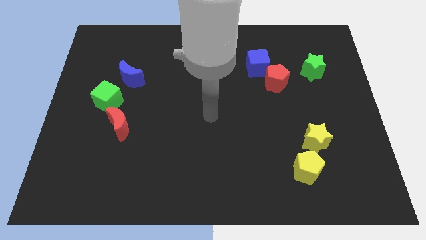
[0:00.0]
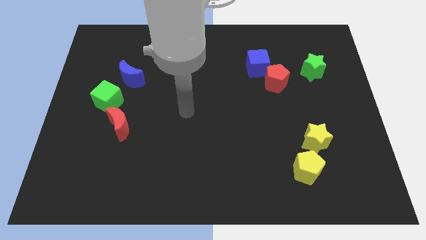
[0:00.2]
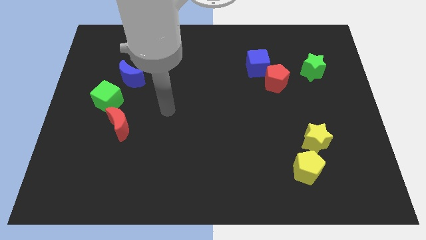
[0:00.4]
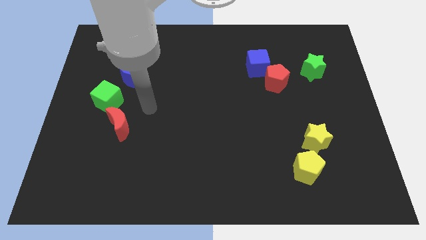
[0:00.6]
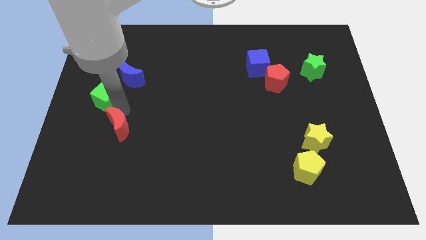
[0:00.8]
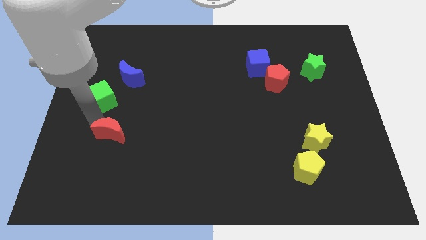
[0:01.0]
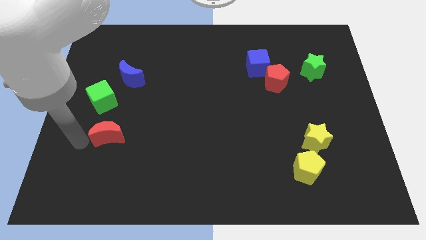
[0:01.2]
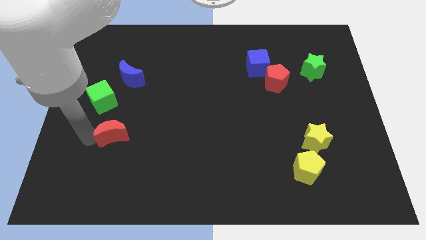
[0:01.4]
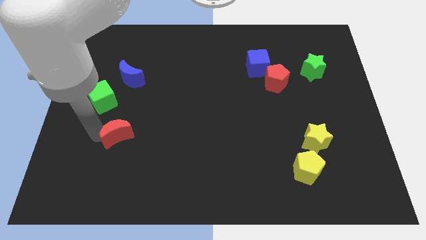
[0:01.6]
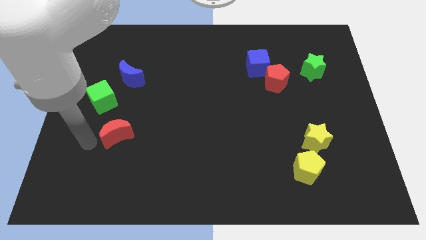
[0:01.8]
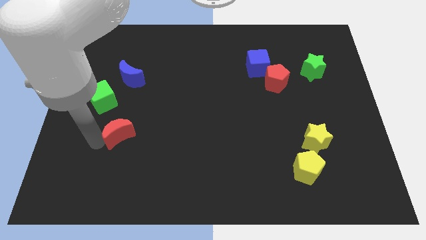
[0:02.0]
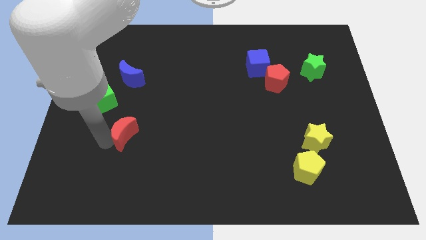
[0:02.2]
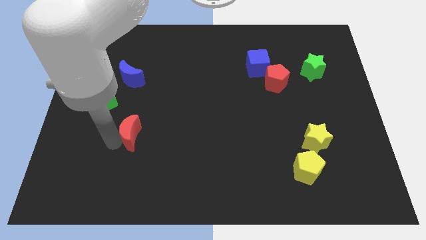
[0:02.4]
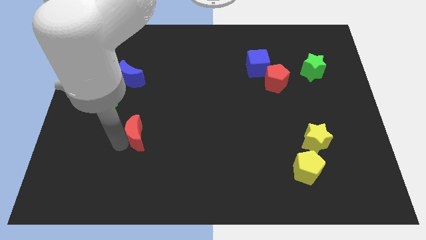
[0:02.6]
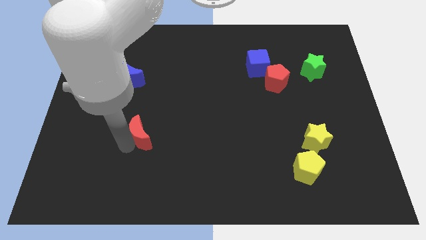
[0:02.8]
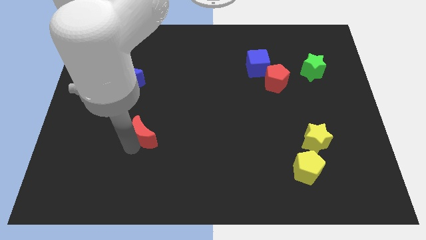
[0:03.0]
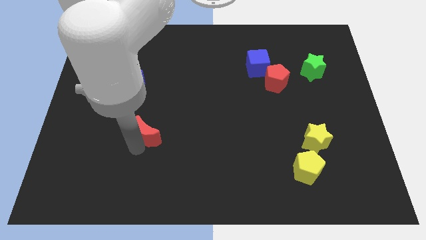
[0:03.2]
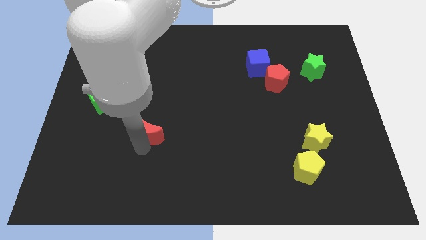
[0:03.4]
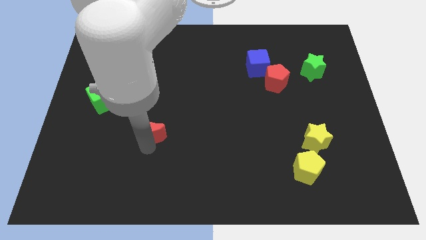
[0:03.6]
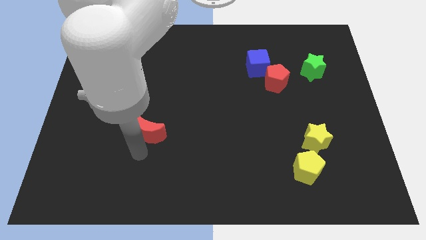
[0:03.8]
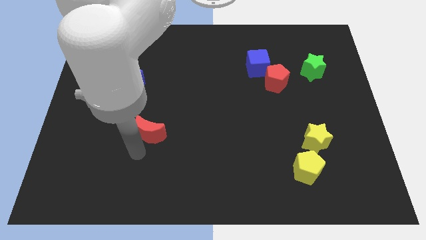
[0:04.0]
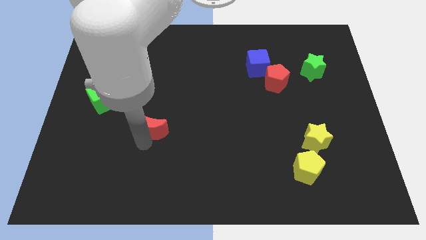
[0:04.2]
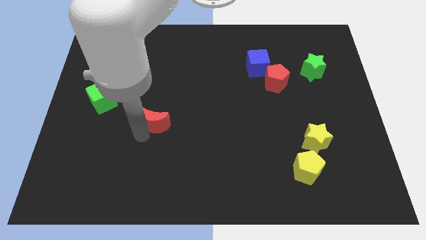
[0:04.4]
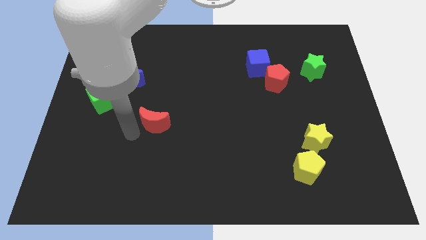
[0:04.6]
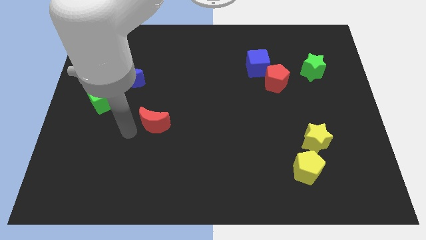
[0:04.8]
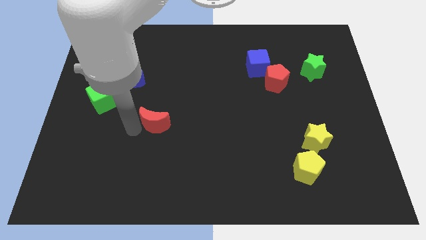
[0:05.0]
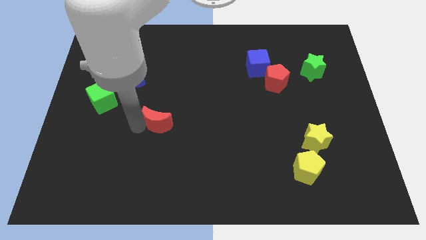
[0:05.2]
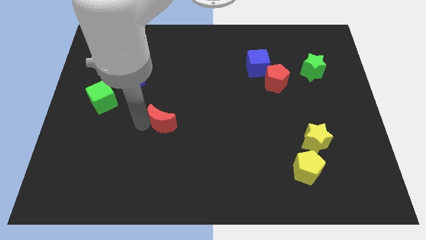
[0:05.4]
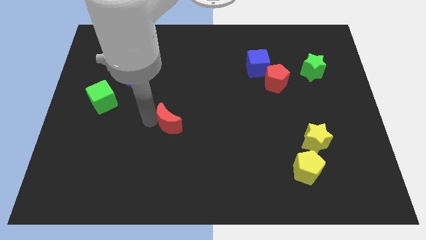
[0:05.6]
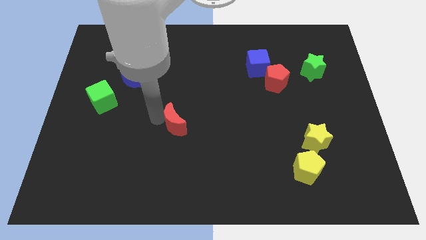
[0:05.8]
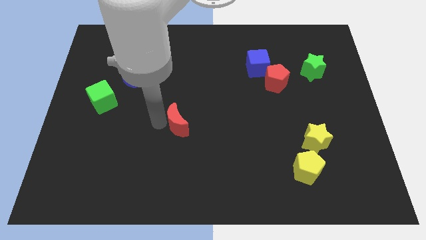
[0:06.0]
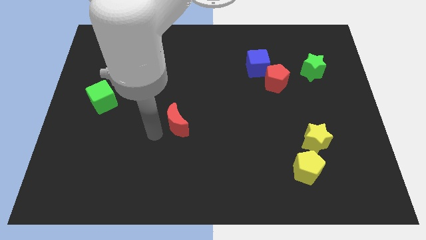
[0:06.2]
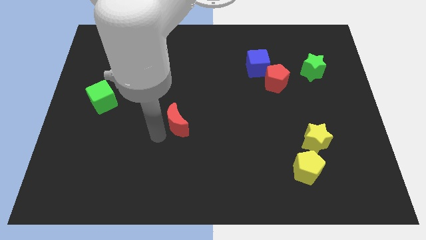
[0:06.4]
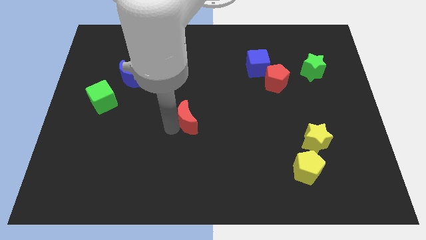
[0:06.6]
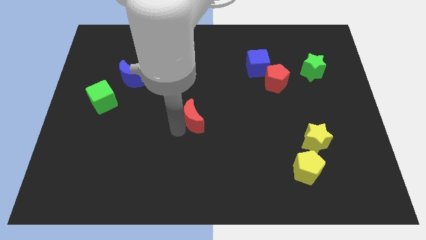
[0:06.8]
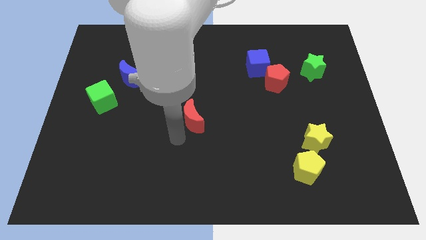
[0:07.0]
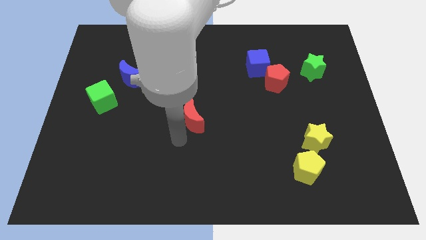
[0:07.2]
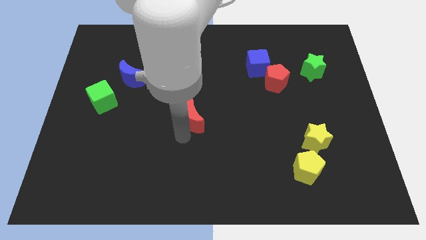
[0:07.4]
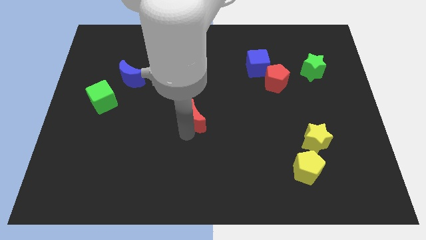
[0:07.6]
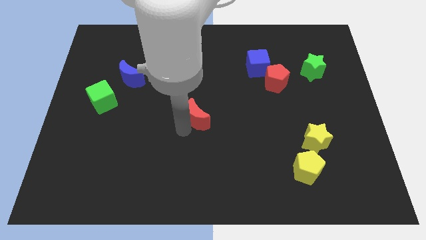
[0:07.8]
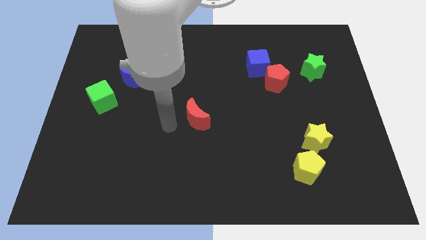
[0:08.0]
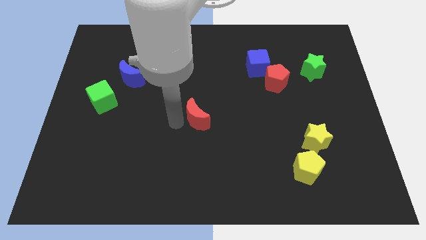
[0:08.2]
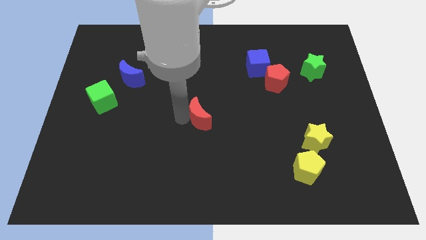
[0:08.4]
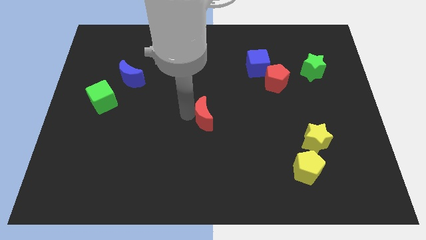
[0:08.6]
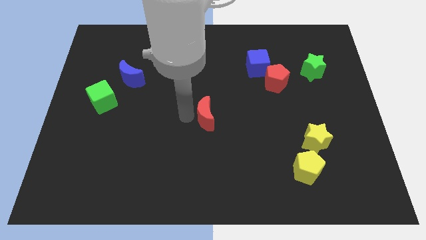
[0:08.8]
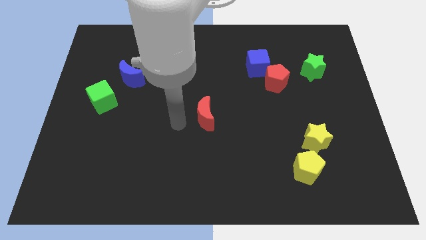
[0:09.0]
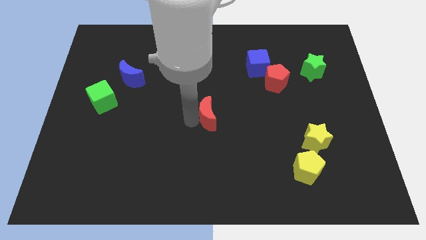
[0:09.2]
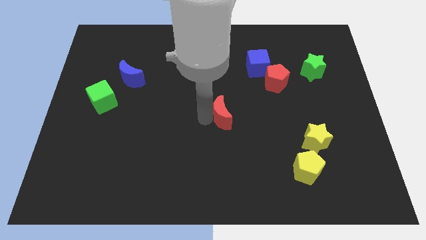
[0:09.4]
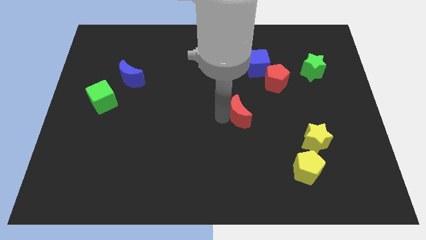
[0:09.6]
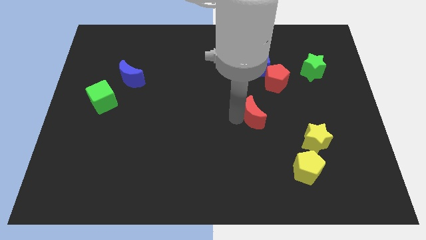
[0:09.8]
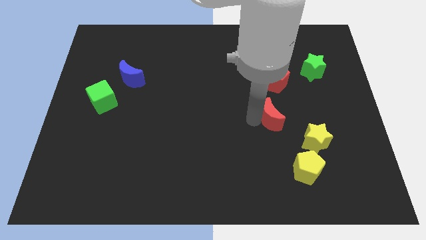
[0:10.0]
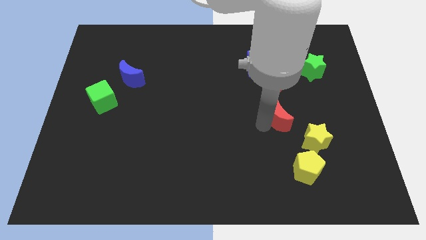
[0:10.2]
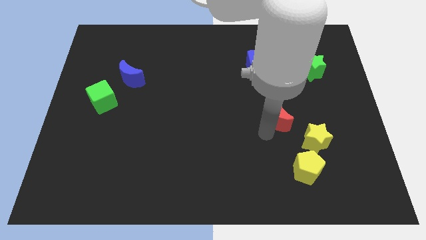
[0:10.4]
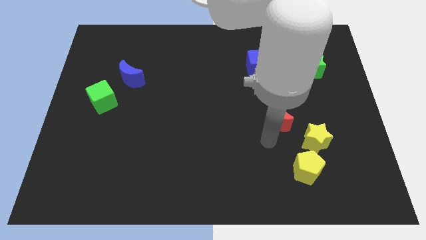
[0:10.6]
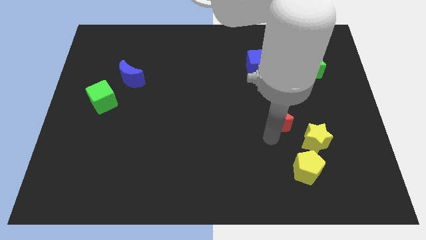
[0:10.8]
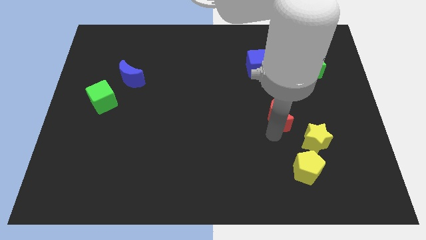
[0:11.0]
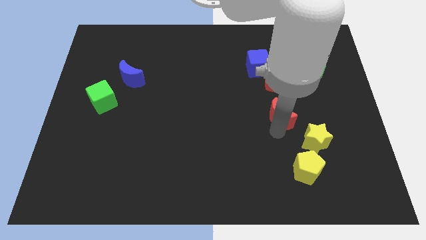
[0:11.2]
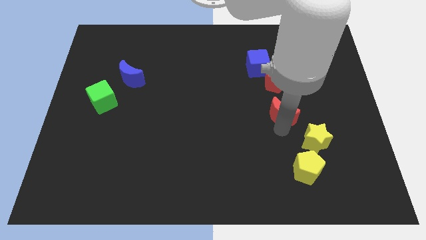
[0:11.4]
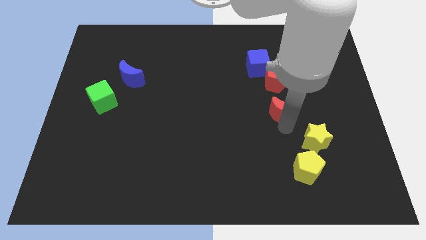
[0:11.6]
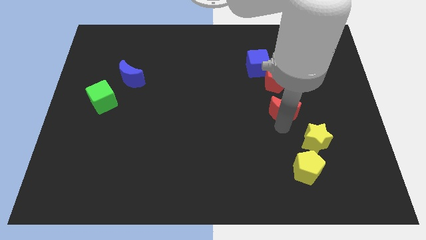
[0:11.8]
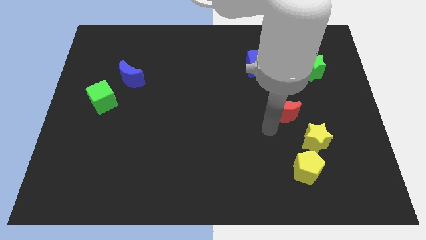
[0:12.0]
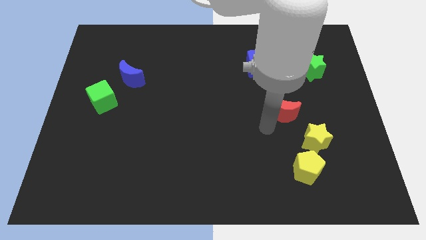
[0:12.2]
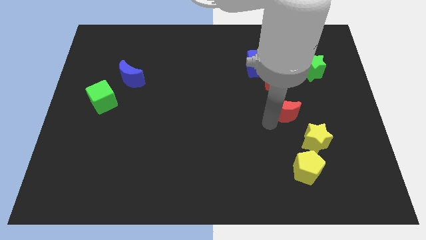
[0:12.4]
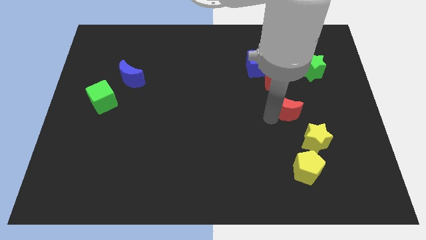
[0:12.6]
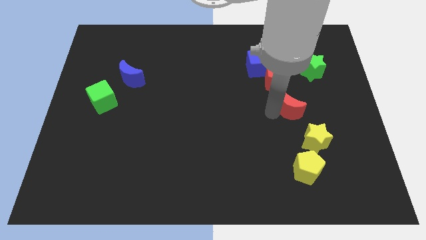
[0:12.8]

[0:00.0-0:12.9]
move the red moon to the bottom right side of the red pentagon
